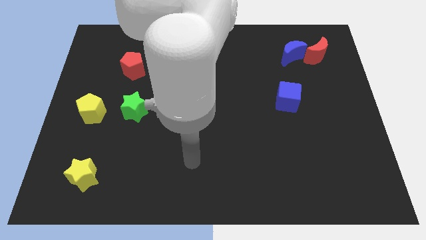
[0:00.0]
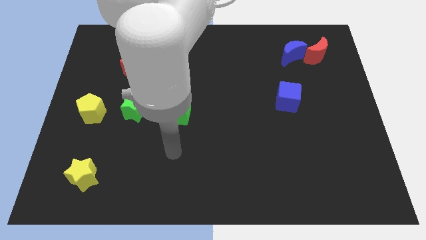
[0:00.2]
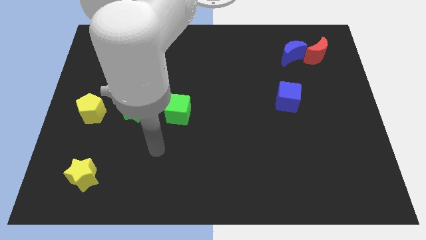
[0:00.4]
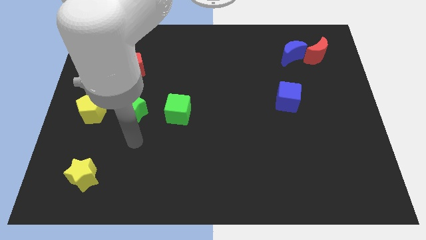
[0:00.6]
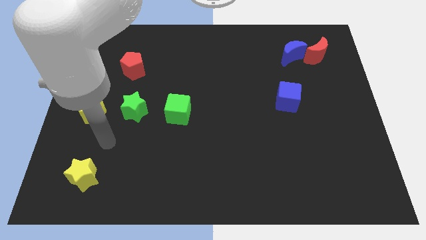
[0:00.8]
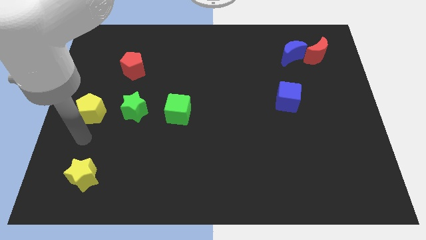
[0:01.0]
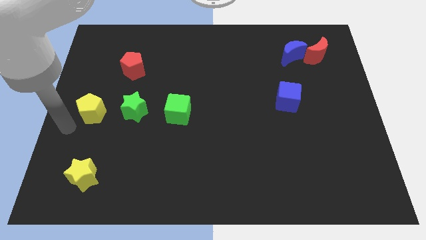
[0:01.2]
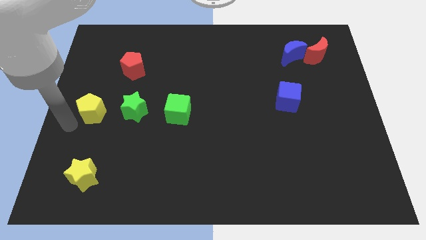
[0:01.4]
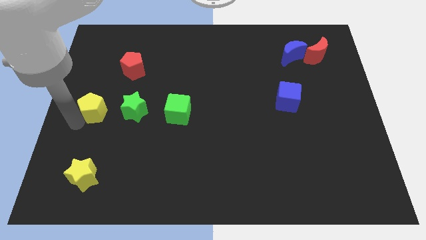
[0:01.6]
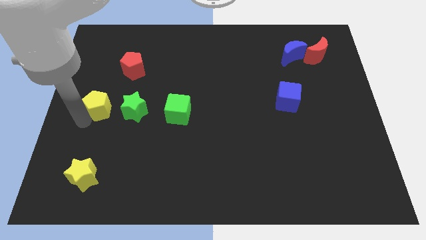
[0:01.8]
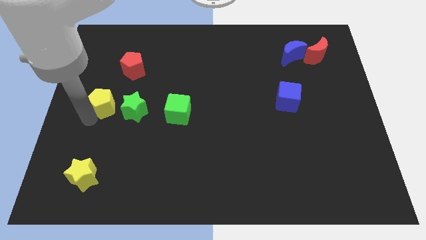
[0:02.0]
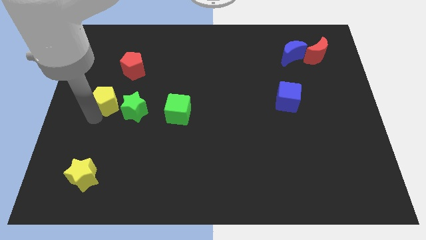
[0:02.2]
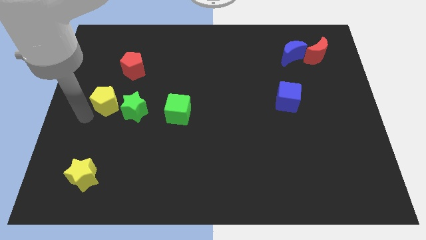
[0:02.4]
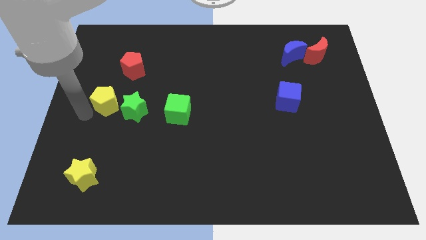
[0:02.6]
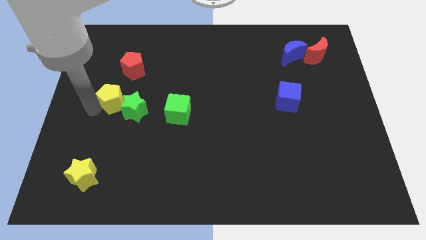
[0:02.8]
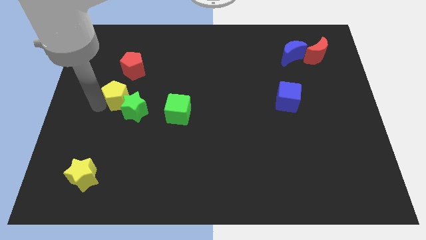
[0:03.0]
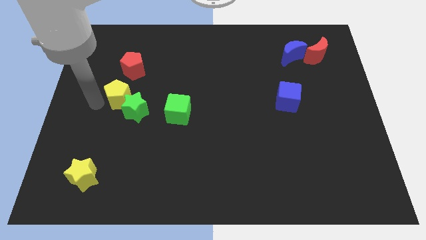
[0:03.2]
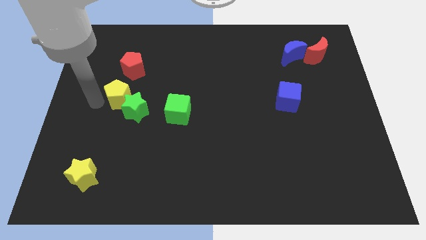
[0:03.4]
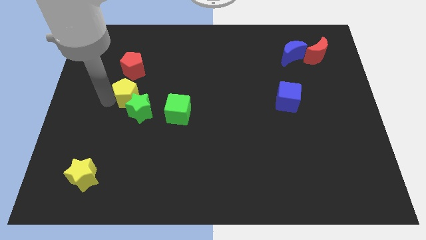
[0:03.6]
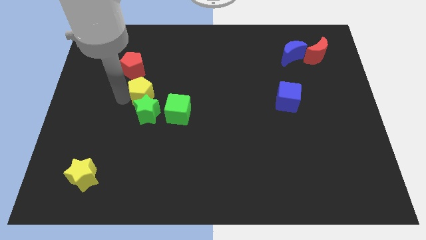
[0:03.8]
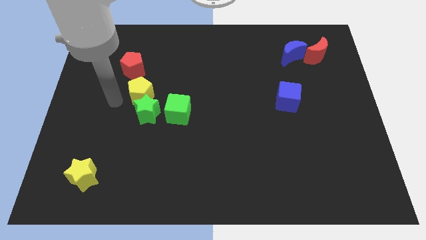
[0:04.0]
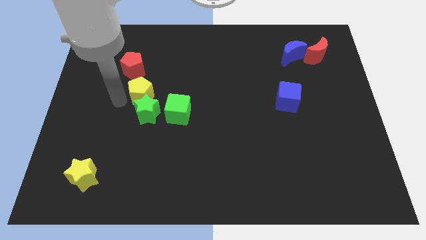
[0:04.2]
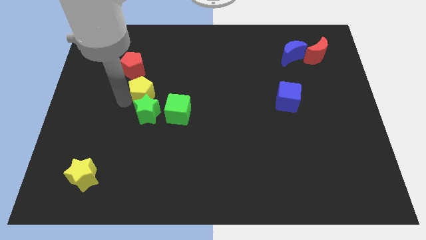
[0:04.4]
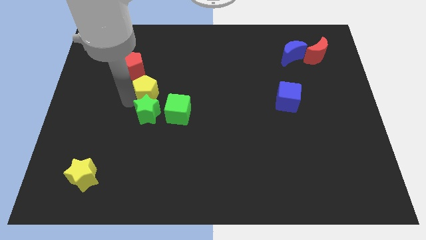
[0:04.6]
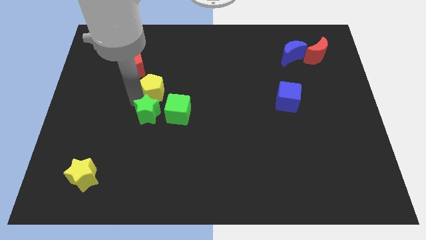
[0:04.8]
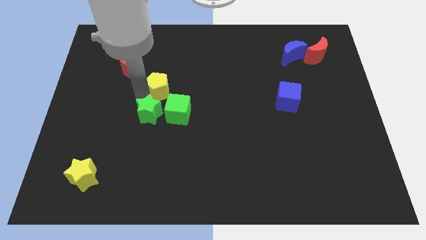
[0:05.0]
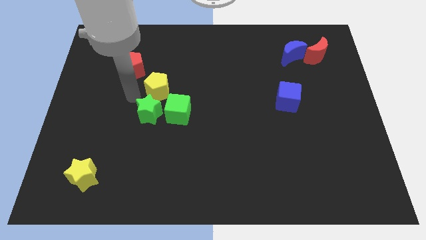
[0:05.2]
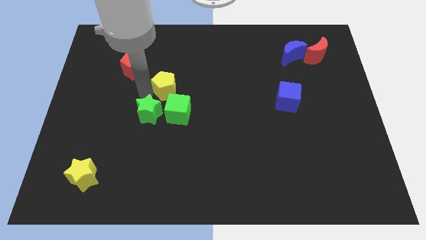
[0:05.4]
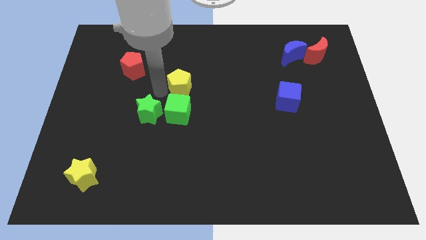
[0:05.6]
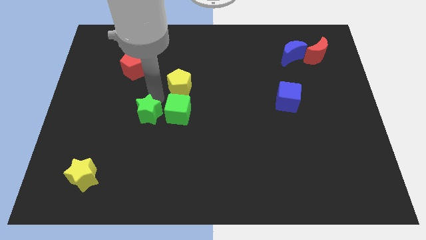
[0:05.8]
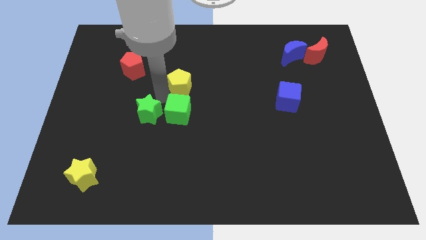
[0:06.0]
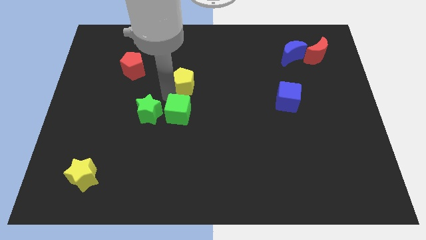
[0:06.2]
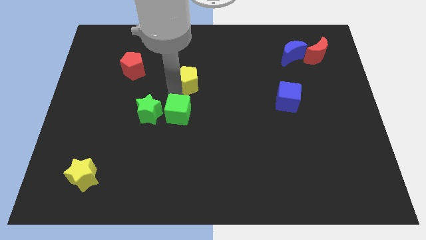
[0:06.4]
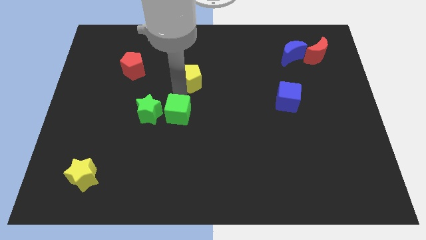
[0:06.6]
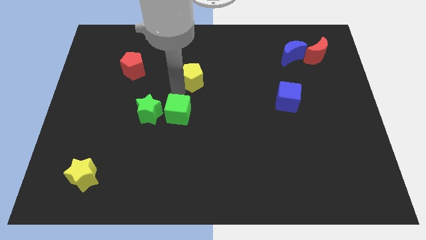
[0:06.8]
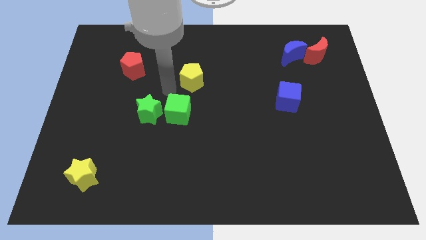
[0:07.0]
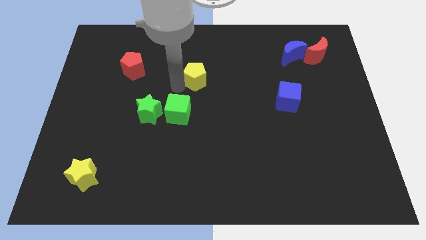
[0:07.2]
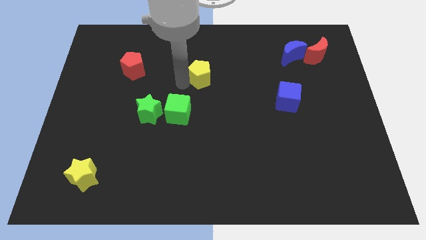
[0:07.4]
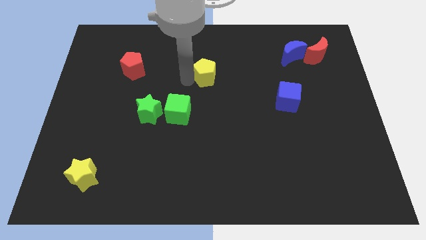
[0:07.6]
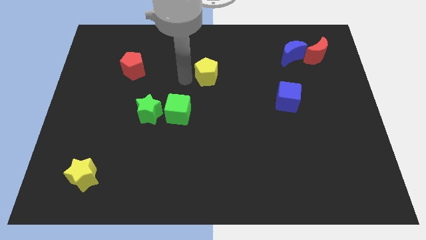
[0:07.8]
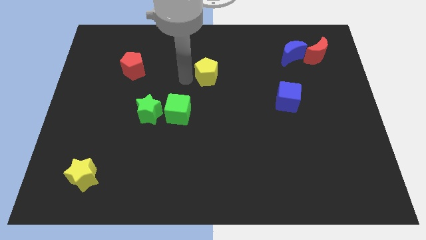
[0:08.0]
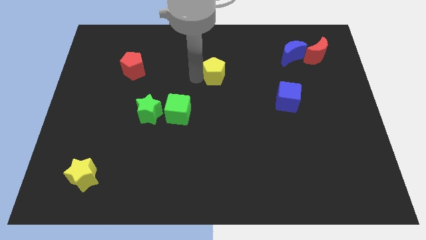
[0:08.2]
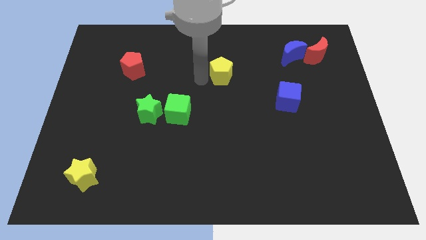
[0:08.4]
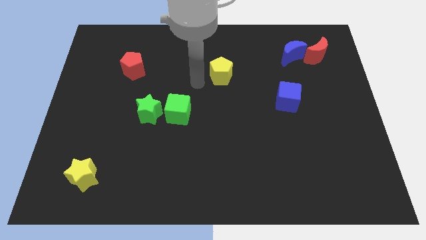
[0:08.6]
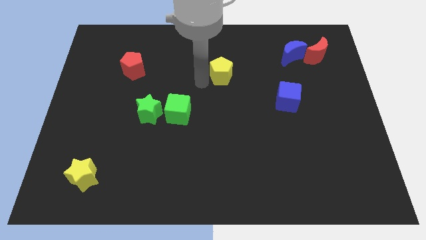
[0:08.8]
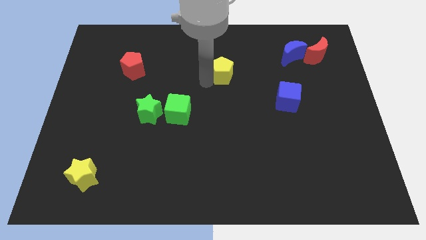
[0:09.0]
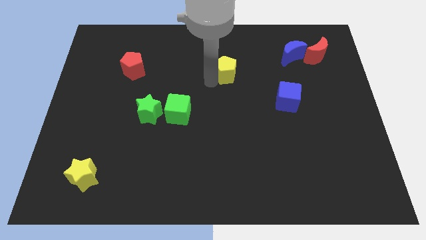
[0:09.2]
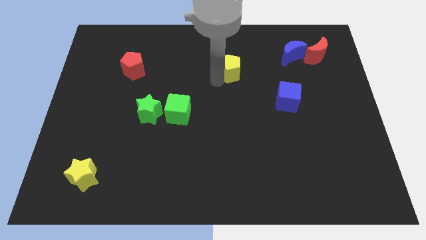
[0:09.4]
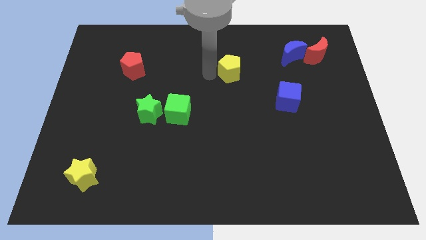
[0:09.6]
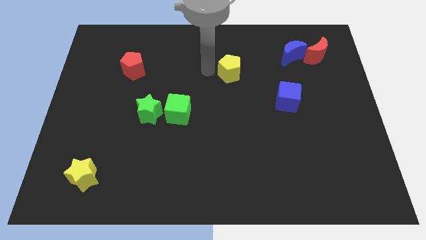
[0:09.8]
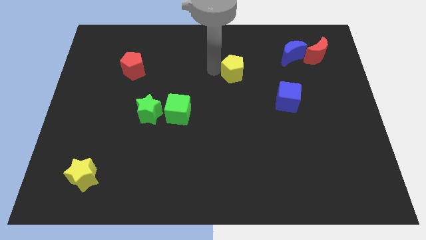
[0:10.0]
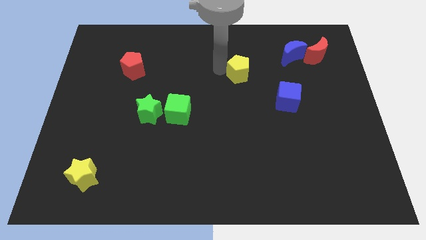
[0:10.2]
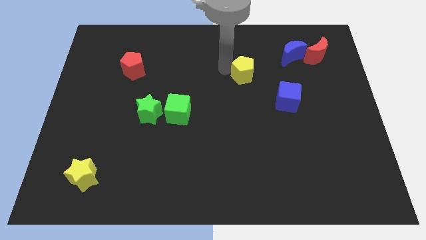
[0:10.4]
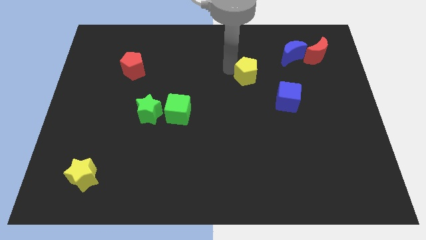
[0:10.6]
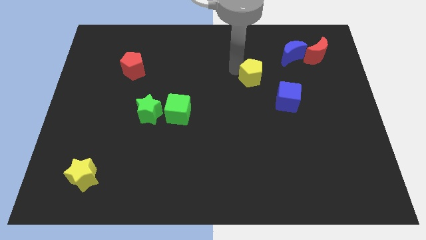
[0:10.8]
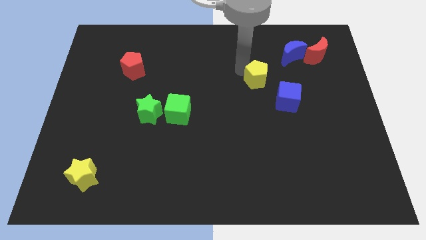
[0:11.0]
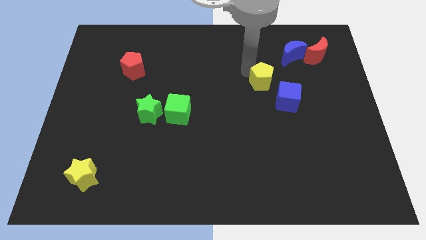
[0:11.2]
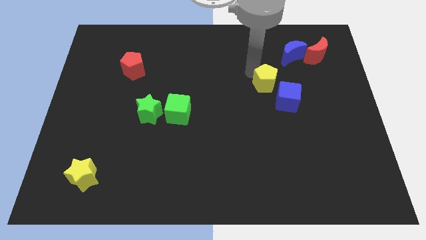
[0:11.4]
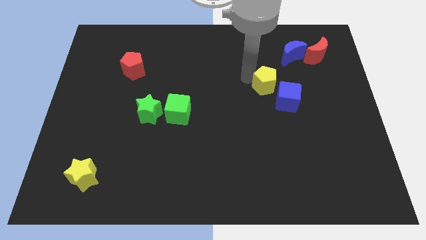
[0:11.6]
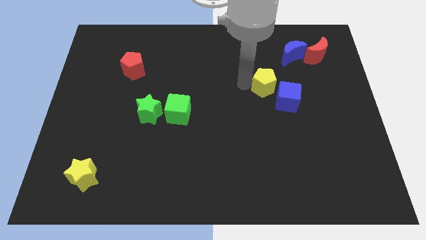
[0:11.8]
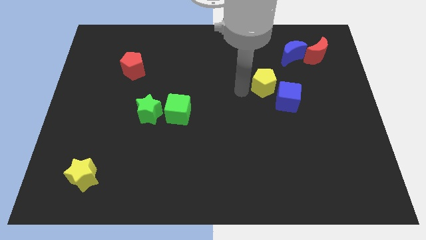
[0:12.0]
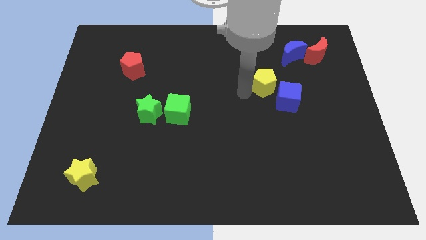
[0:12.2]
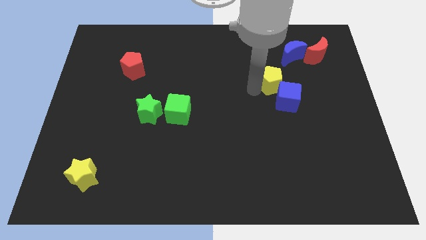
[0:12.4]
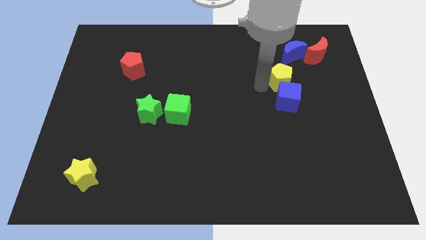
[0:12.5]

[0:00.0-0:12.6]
move the yellow pentagon to the top right of the blue cube

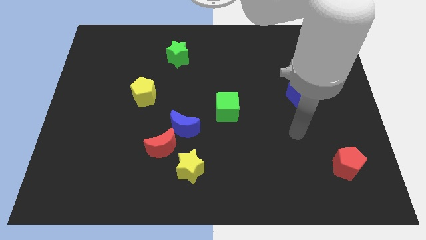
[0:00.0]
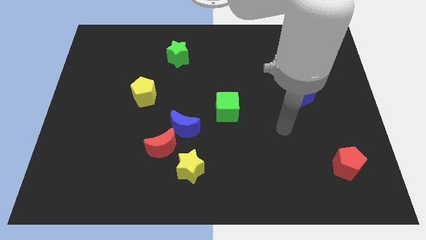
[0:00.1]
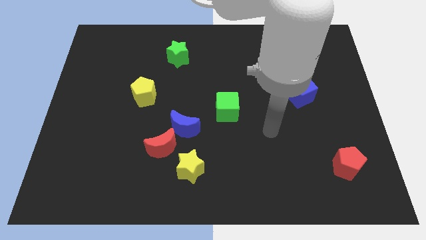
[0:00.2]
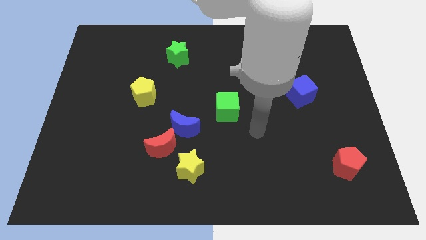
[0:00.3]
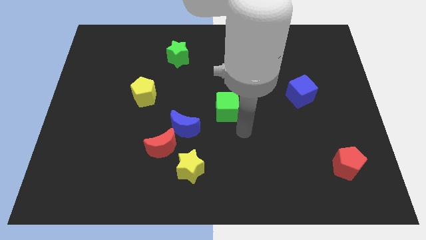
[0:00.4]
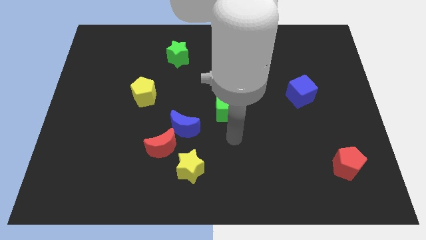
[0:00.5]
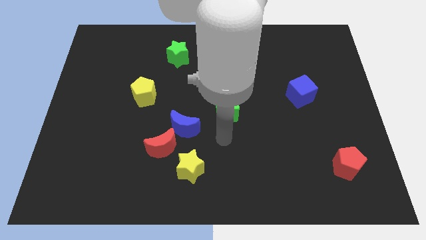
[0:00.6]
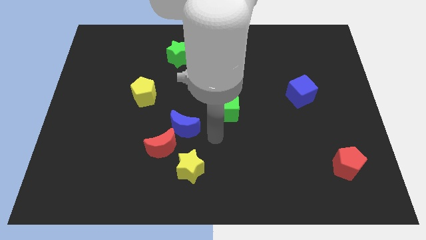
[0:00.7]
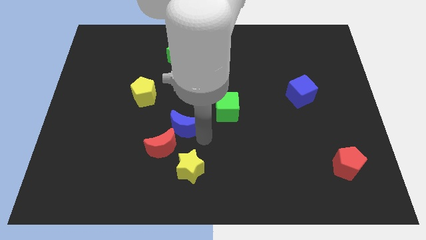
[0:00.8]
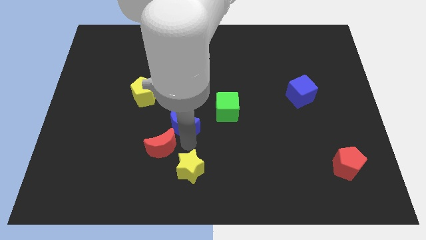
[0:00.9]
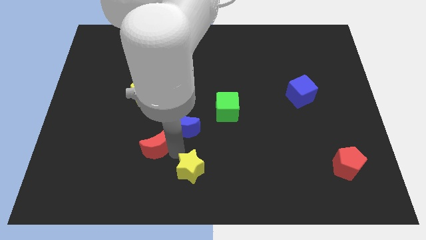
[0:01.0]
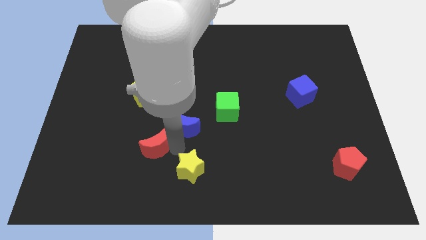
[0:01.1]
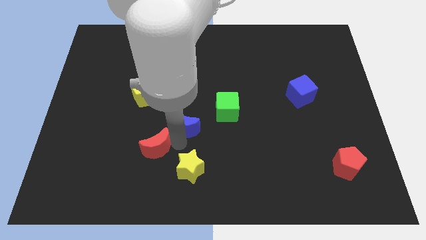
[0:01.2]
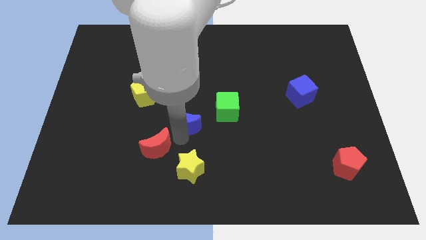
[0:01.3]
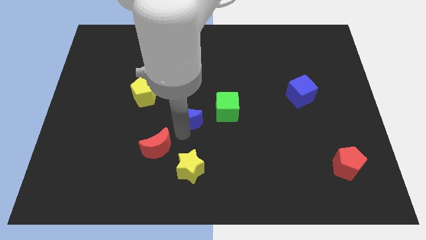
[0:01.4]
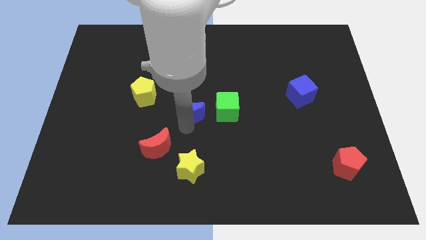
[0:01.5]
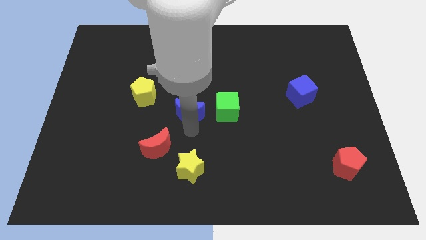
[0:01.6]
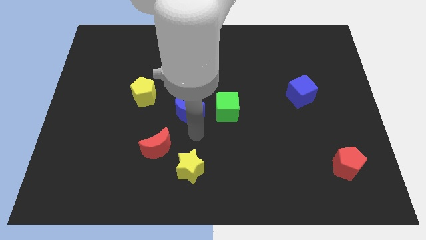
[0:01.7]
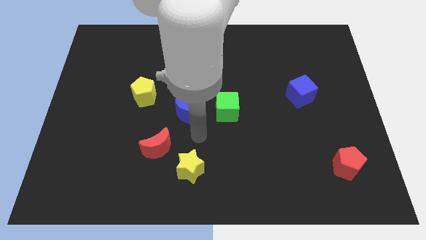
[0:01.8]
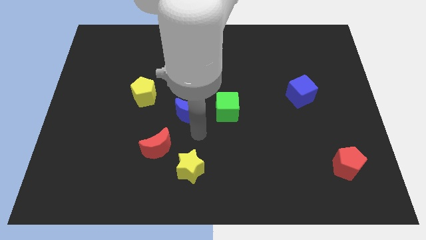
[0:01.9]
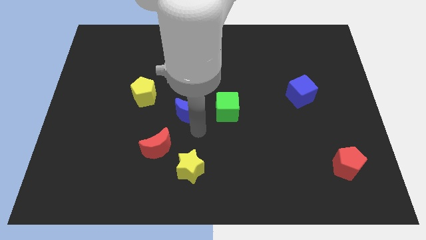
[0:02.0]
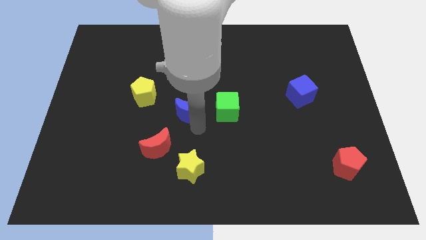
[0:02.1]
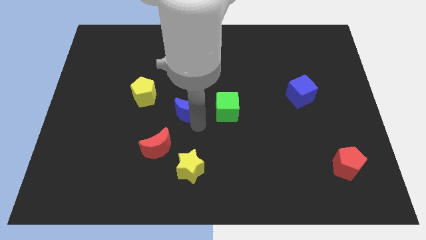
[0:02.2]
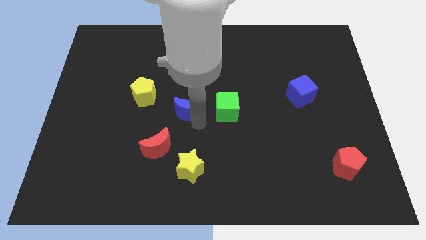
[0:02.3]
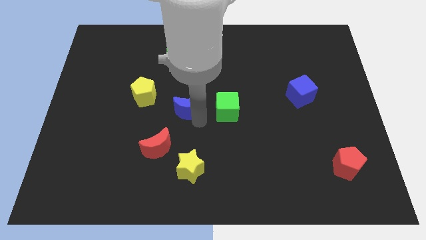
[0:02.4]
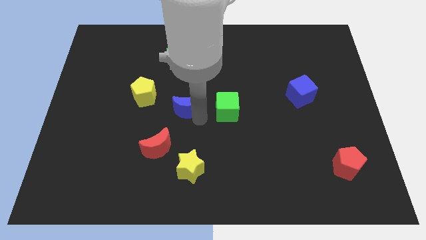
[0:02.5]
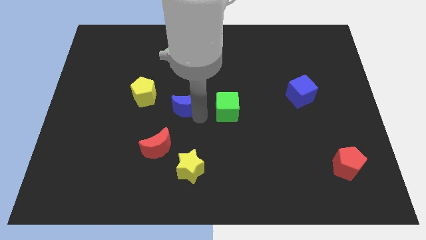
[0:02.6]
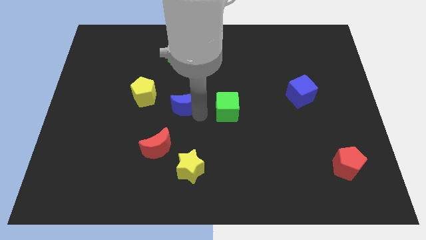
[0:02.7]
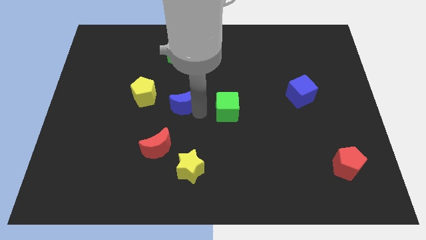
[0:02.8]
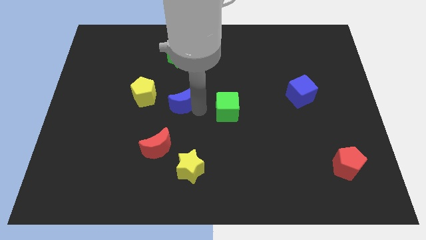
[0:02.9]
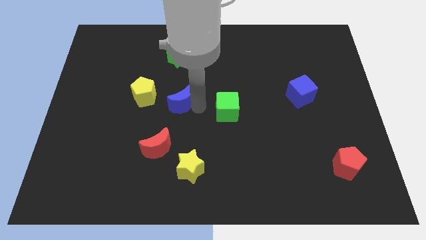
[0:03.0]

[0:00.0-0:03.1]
move the blue moon to the bottom side of the green star
